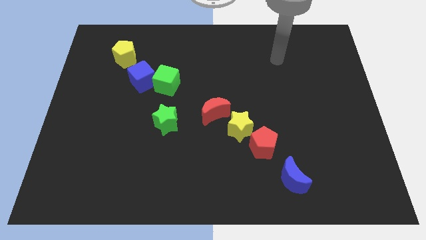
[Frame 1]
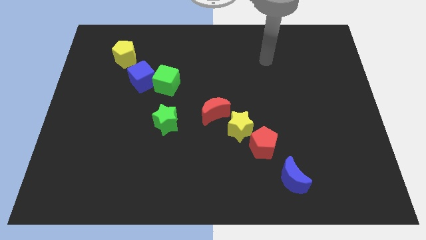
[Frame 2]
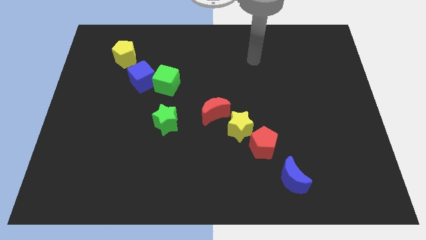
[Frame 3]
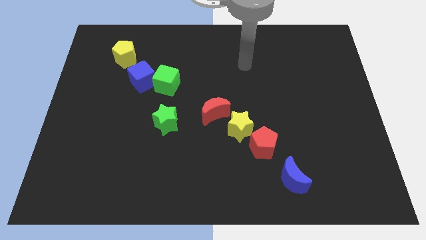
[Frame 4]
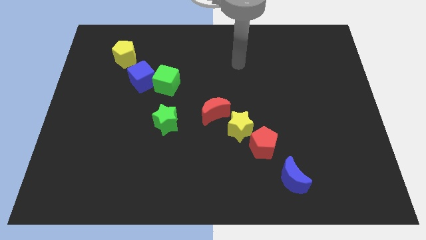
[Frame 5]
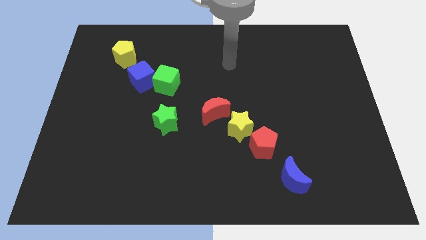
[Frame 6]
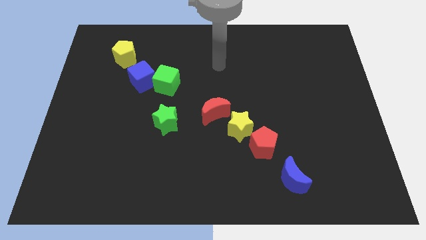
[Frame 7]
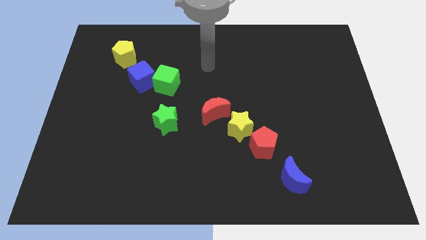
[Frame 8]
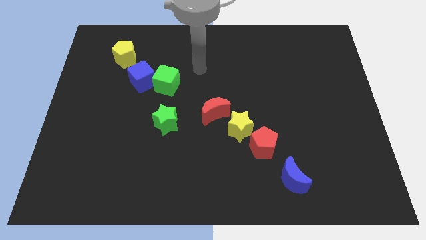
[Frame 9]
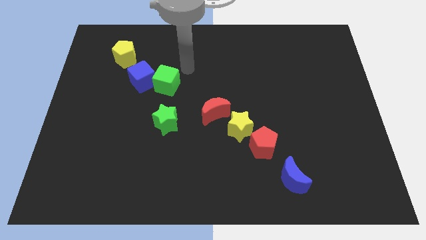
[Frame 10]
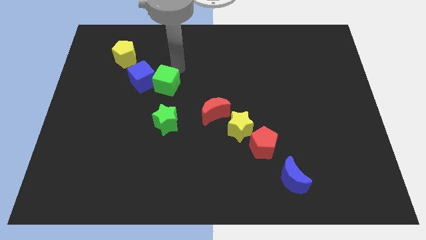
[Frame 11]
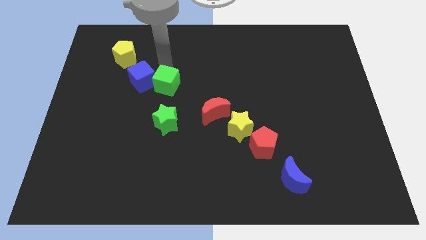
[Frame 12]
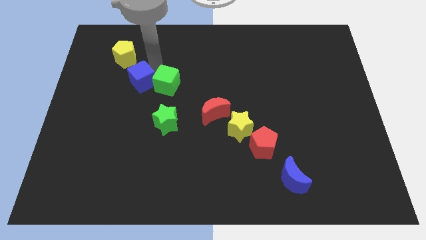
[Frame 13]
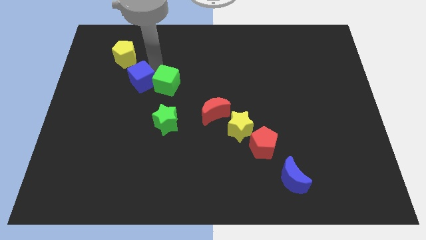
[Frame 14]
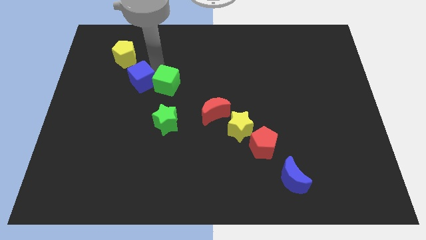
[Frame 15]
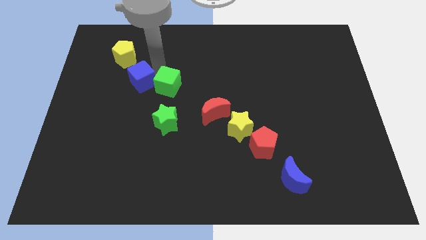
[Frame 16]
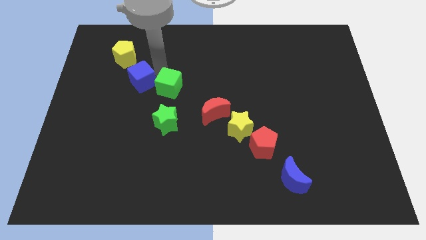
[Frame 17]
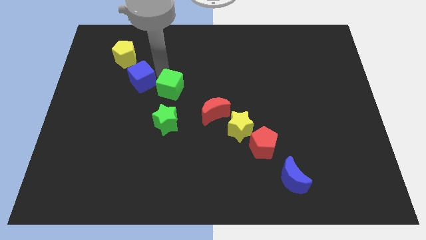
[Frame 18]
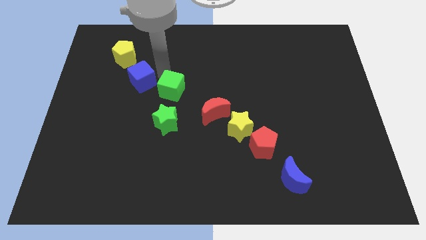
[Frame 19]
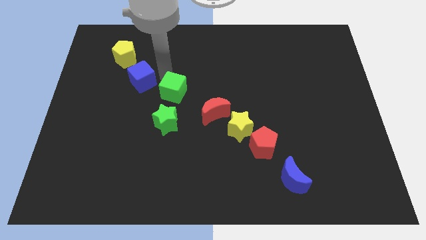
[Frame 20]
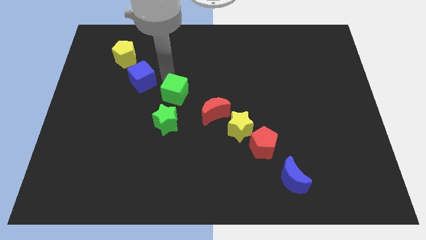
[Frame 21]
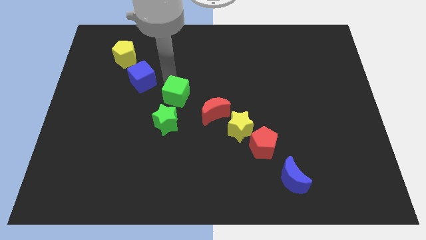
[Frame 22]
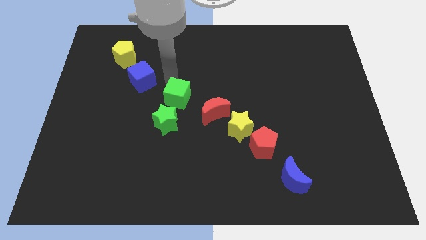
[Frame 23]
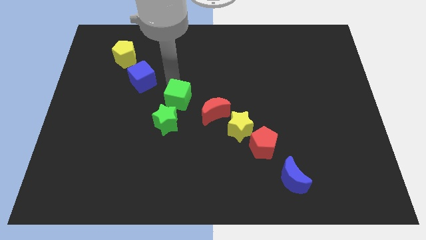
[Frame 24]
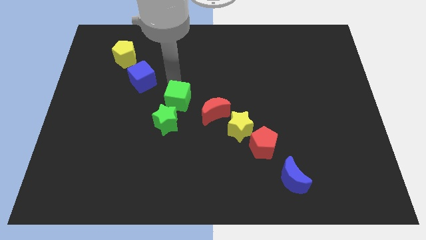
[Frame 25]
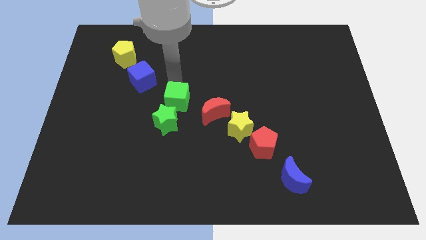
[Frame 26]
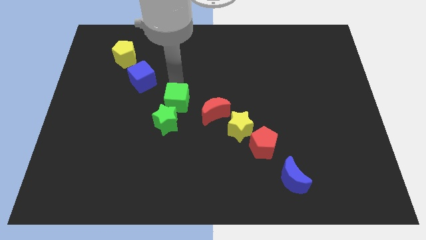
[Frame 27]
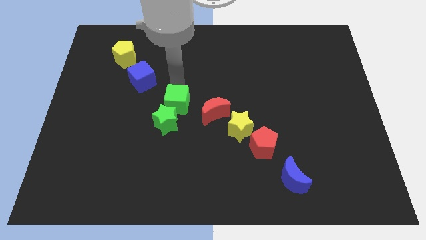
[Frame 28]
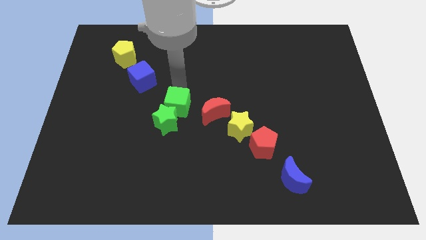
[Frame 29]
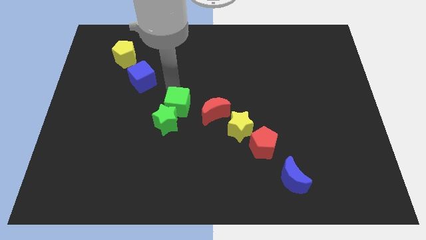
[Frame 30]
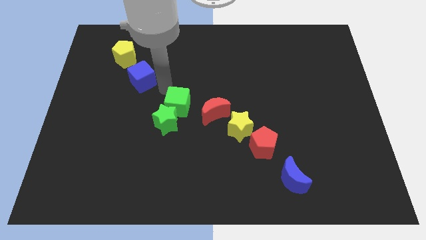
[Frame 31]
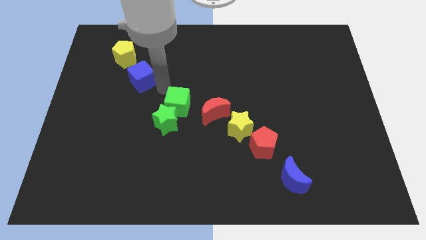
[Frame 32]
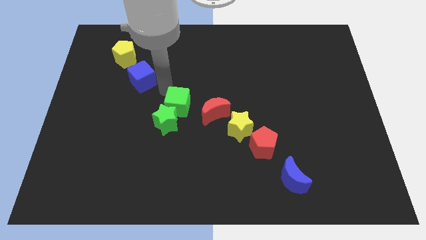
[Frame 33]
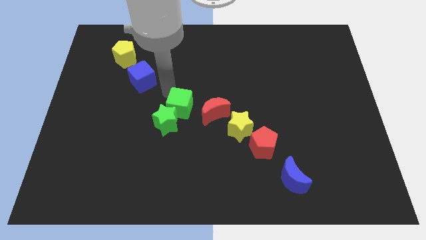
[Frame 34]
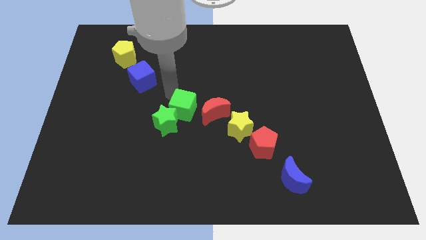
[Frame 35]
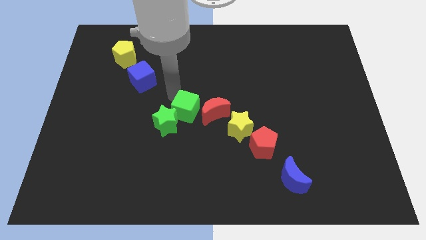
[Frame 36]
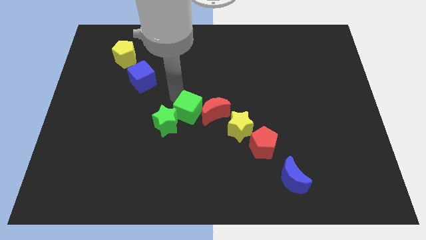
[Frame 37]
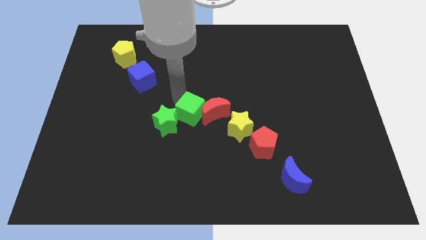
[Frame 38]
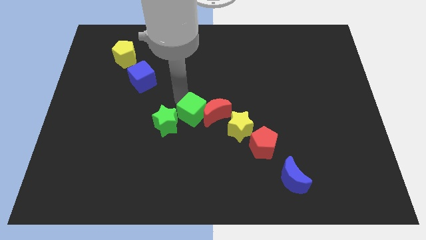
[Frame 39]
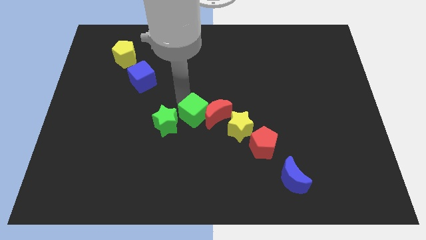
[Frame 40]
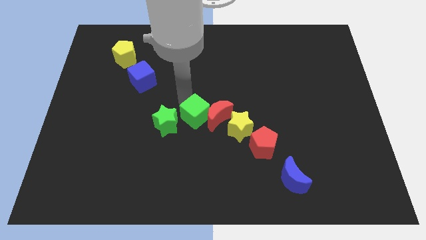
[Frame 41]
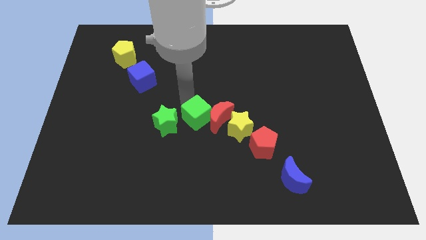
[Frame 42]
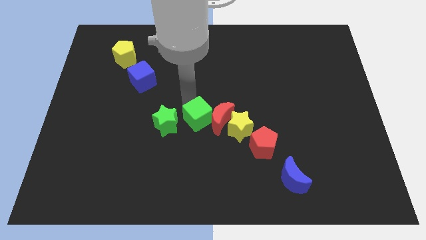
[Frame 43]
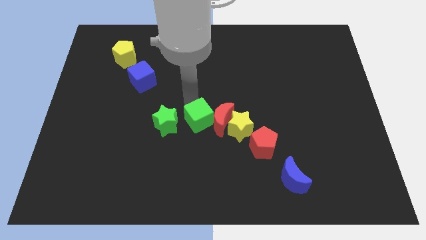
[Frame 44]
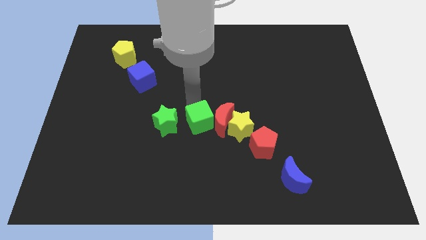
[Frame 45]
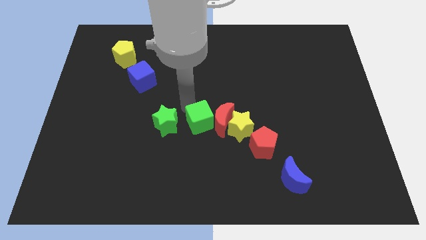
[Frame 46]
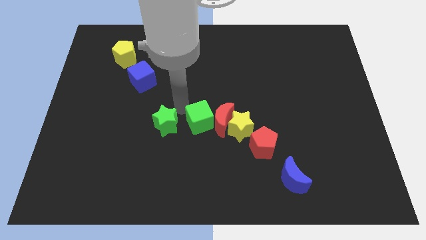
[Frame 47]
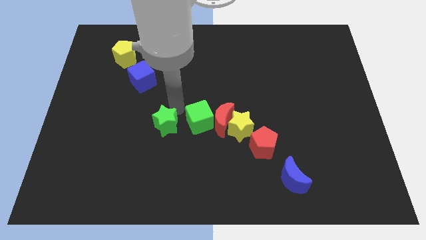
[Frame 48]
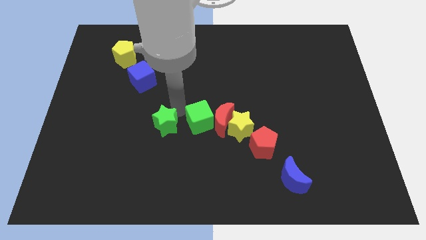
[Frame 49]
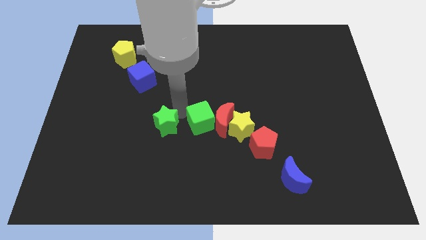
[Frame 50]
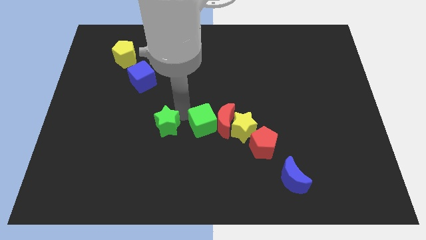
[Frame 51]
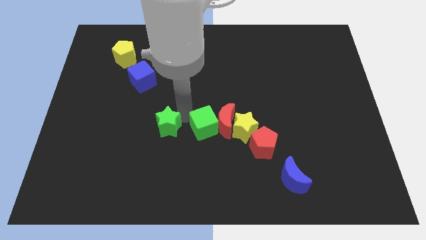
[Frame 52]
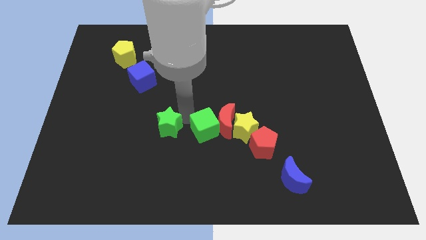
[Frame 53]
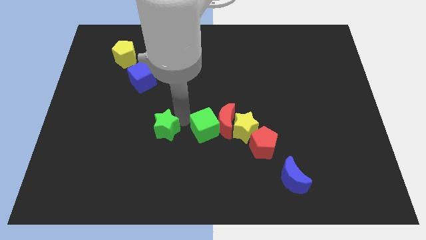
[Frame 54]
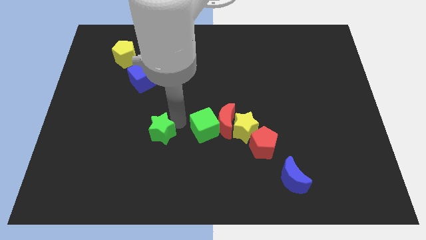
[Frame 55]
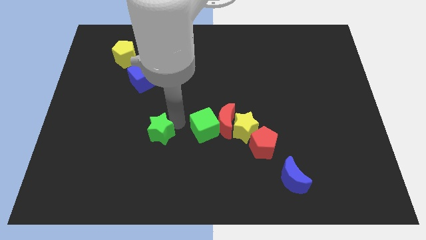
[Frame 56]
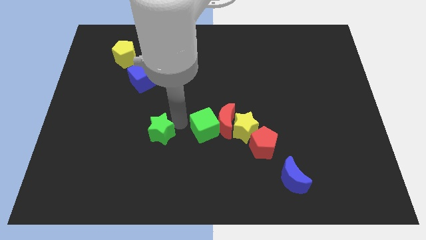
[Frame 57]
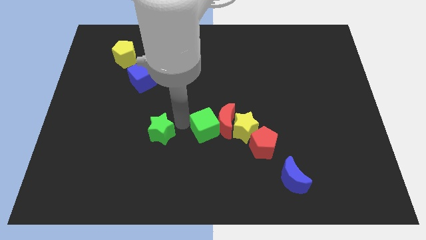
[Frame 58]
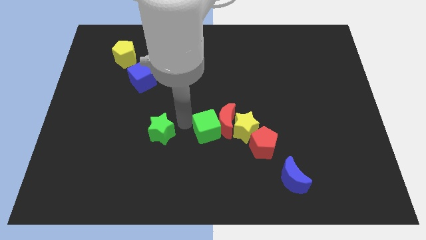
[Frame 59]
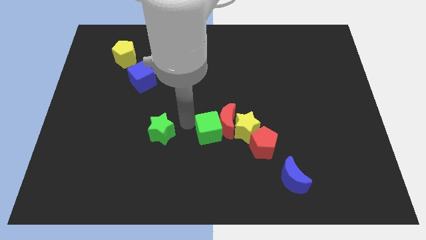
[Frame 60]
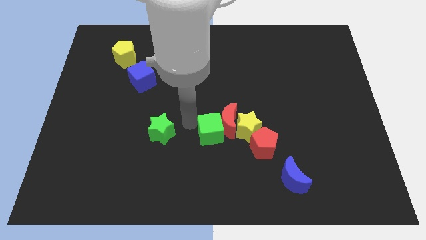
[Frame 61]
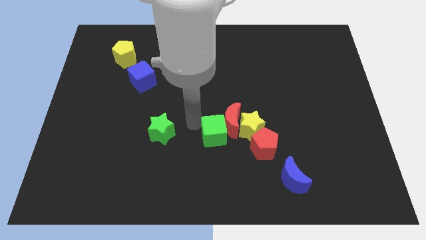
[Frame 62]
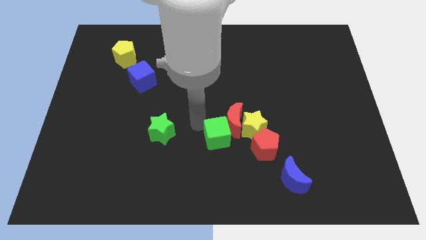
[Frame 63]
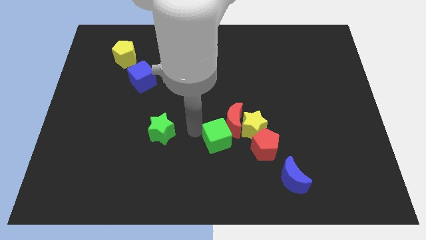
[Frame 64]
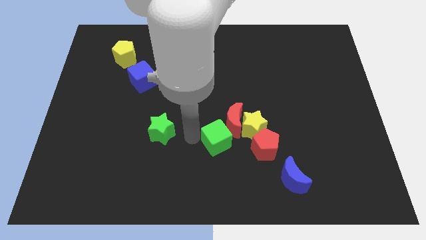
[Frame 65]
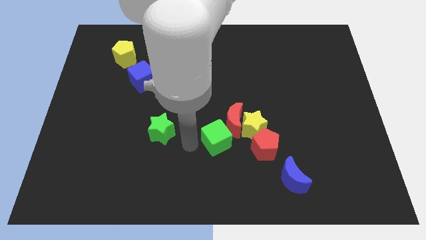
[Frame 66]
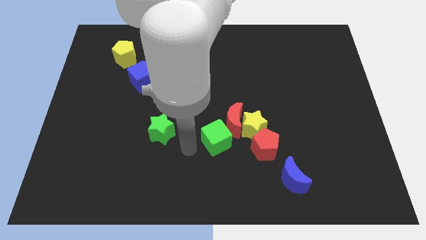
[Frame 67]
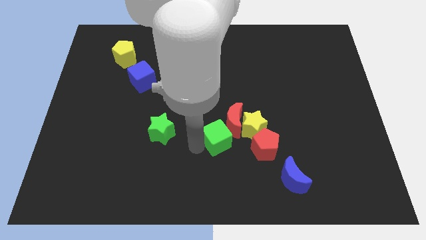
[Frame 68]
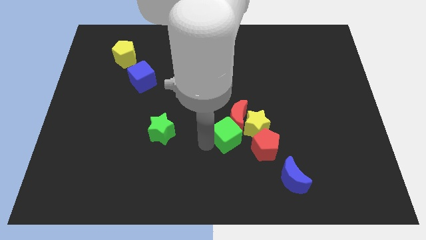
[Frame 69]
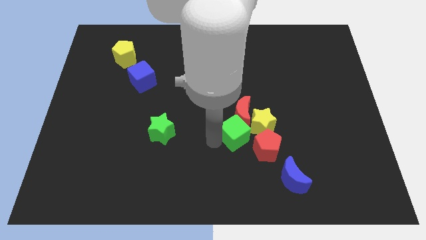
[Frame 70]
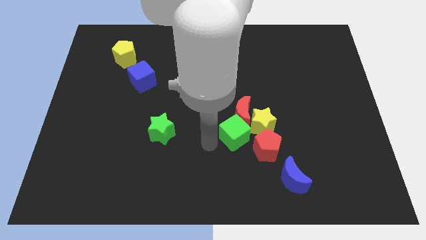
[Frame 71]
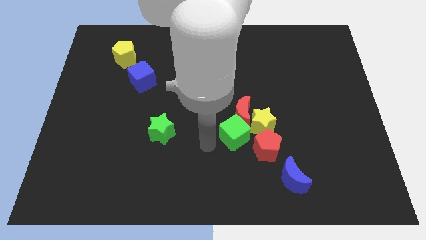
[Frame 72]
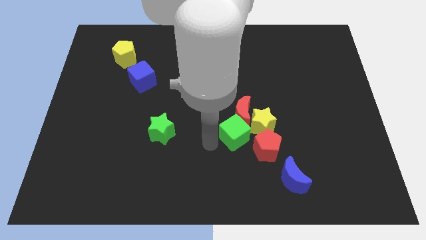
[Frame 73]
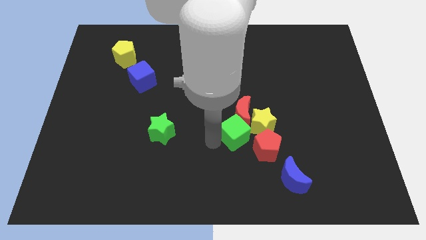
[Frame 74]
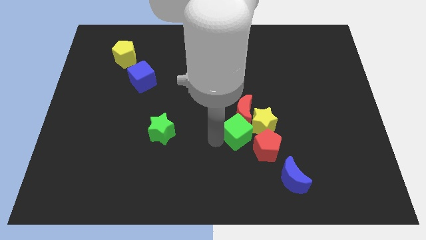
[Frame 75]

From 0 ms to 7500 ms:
slide the green cube close to the yellow star
